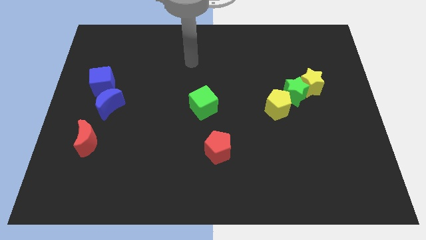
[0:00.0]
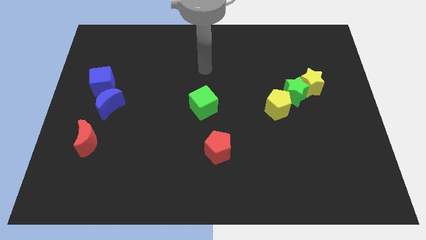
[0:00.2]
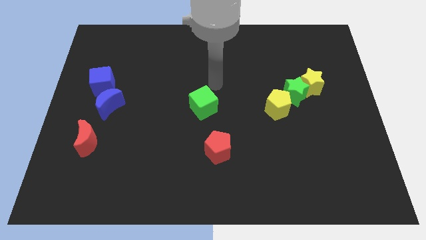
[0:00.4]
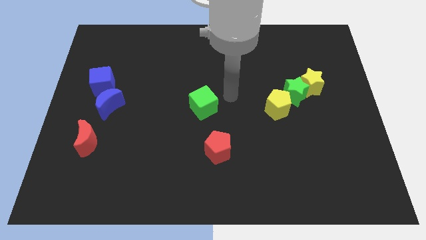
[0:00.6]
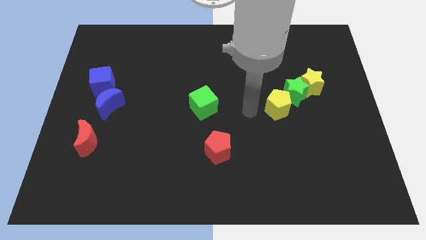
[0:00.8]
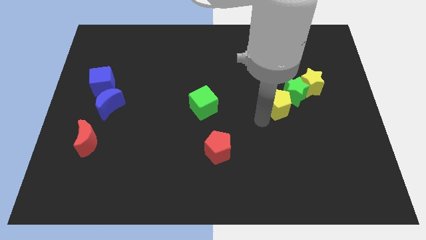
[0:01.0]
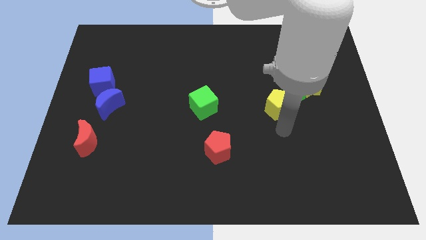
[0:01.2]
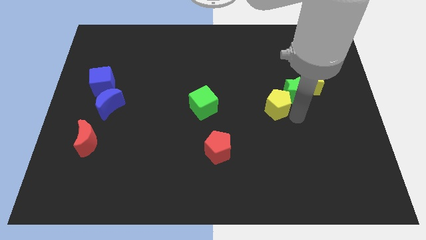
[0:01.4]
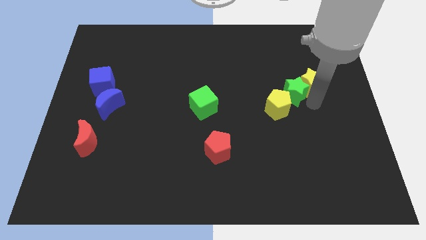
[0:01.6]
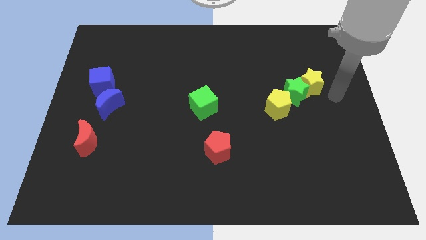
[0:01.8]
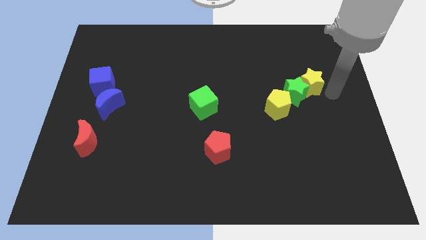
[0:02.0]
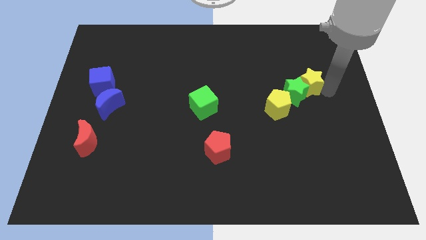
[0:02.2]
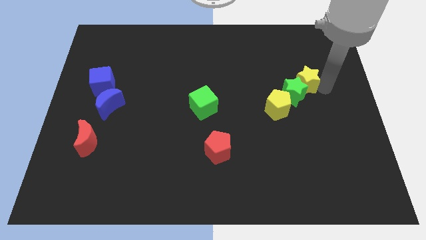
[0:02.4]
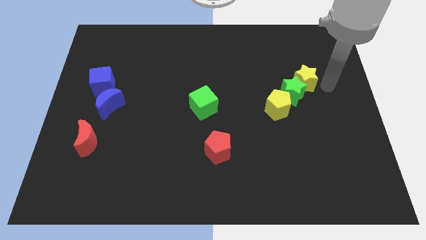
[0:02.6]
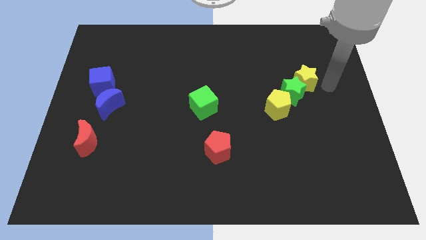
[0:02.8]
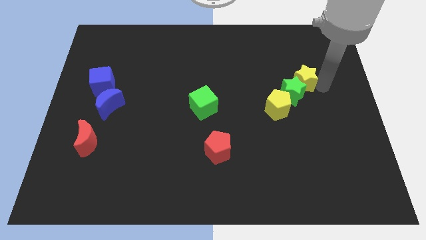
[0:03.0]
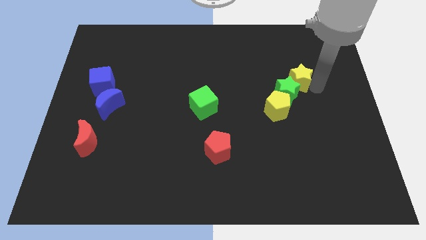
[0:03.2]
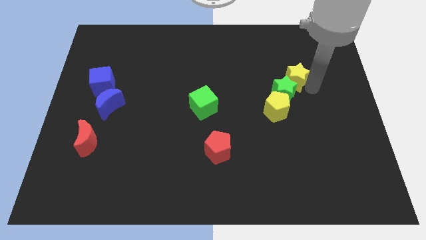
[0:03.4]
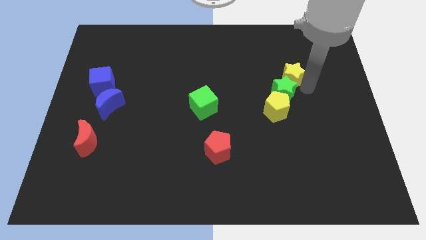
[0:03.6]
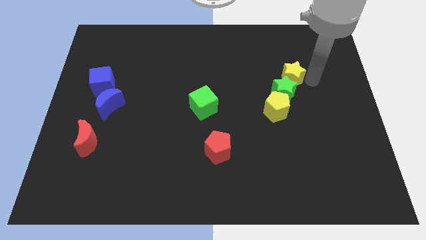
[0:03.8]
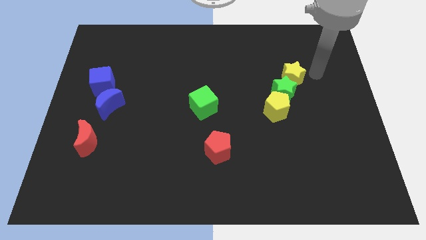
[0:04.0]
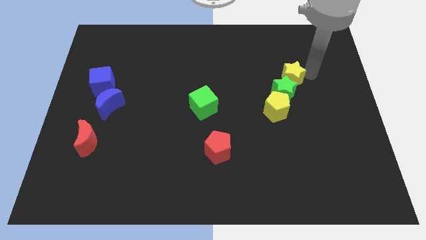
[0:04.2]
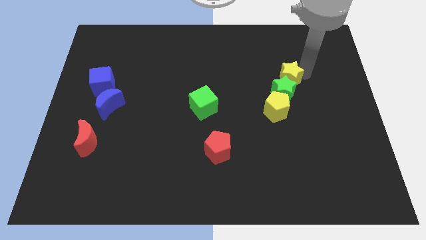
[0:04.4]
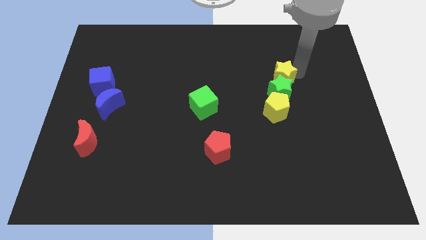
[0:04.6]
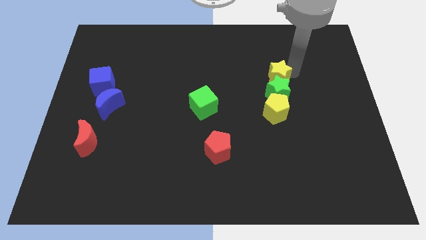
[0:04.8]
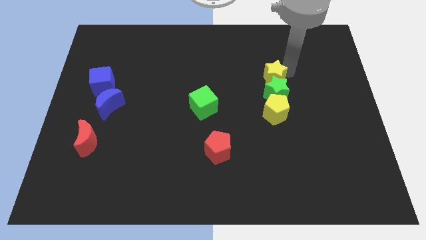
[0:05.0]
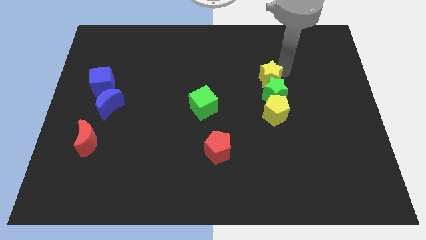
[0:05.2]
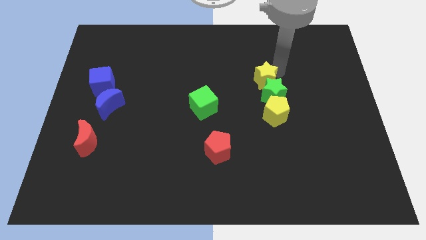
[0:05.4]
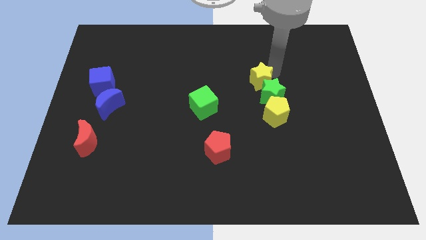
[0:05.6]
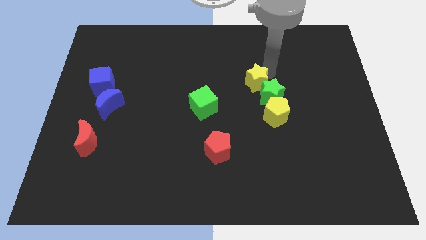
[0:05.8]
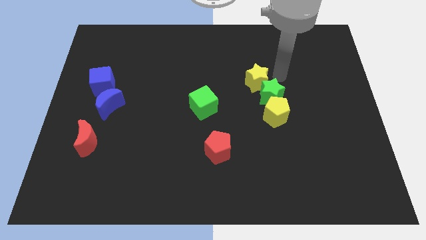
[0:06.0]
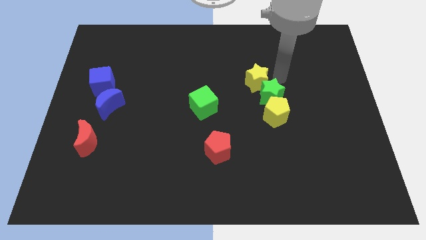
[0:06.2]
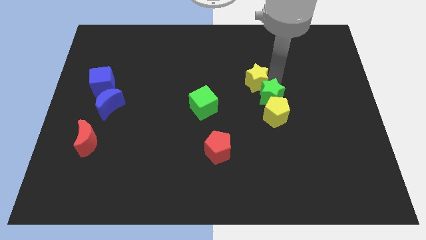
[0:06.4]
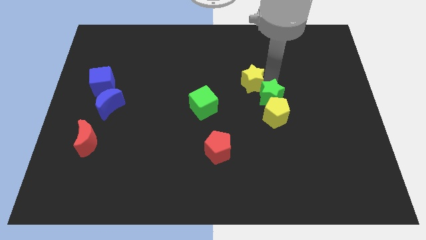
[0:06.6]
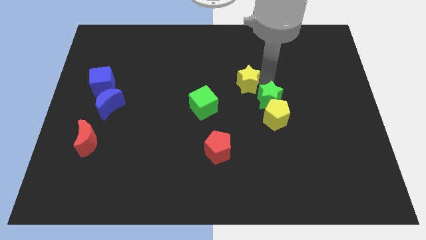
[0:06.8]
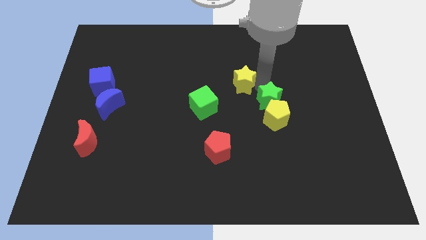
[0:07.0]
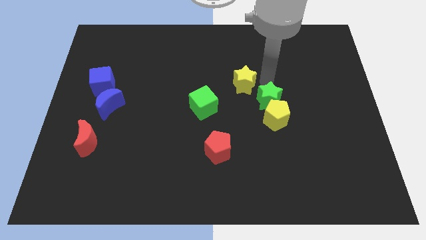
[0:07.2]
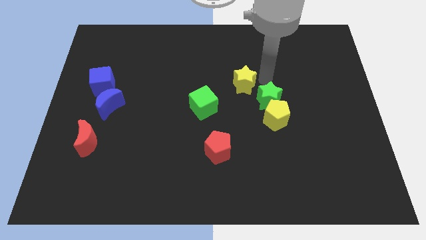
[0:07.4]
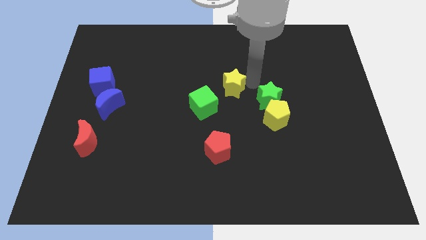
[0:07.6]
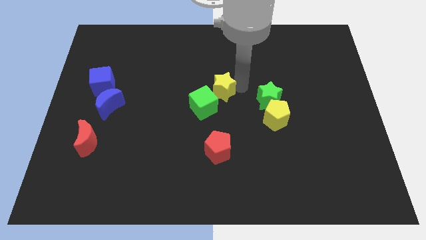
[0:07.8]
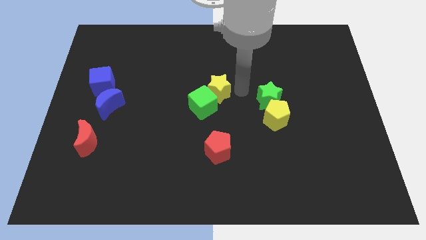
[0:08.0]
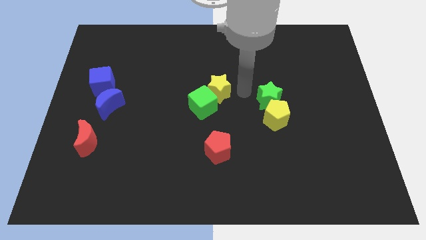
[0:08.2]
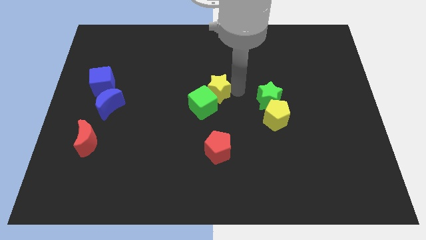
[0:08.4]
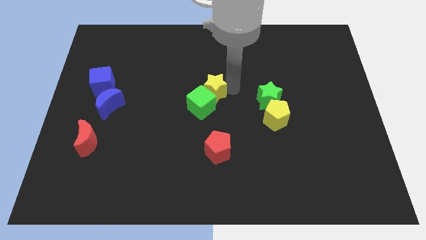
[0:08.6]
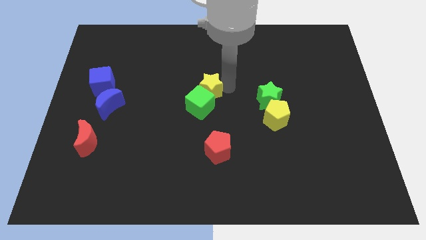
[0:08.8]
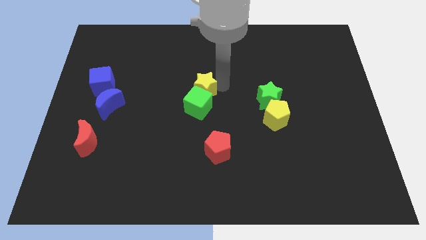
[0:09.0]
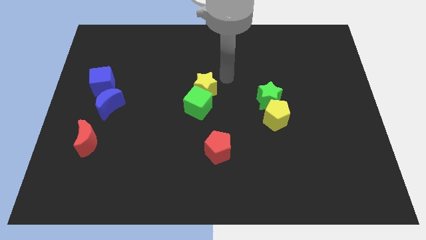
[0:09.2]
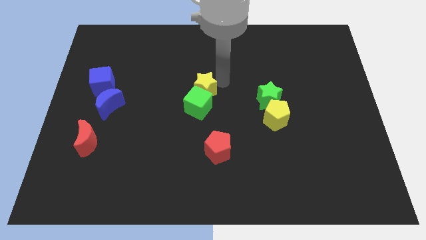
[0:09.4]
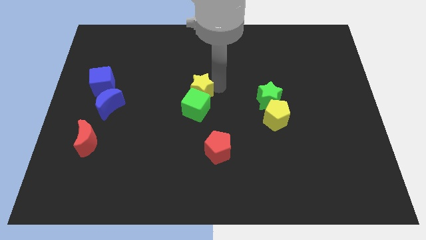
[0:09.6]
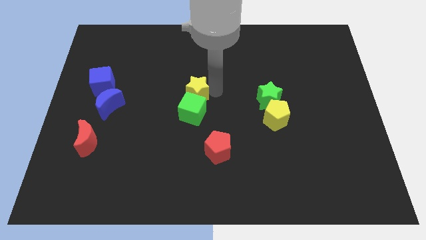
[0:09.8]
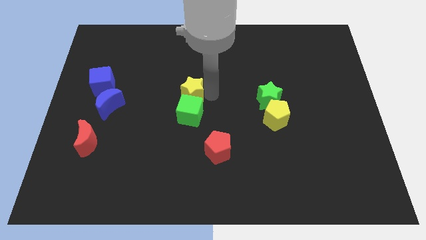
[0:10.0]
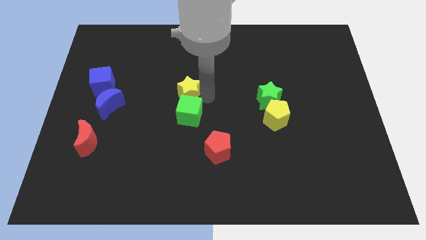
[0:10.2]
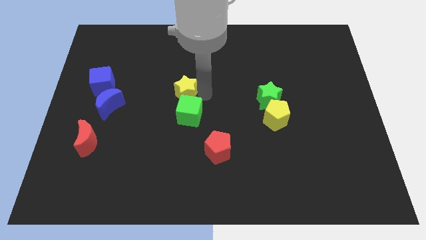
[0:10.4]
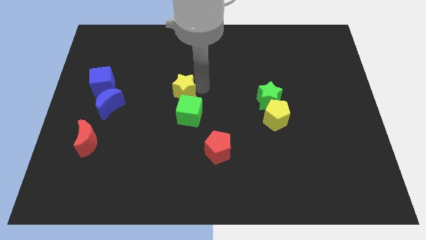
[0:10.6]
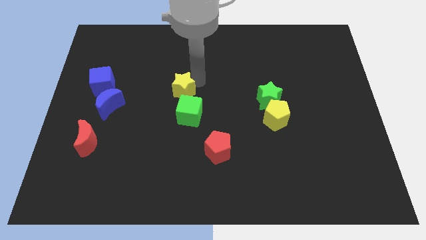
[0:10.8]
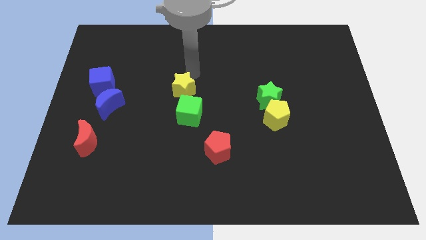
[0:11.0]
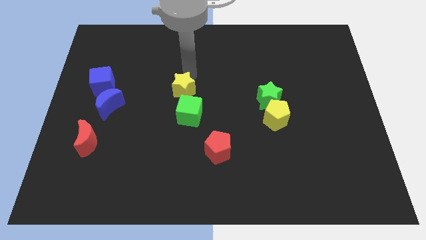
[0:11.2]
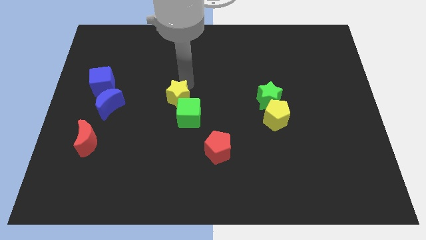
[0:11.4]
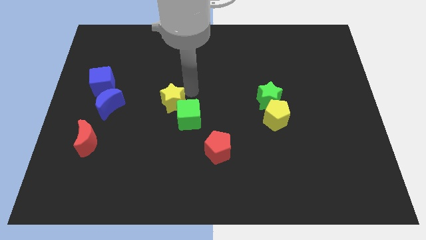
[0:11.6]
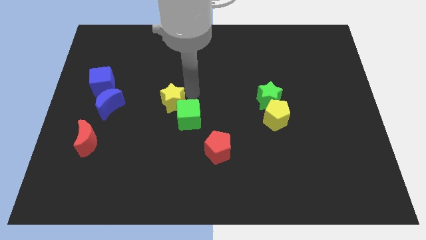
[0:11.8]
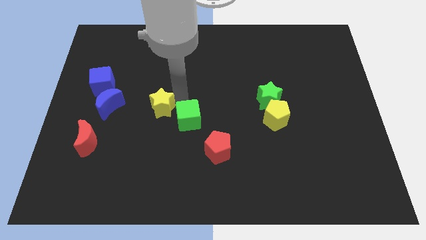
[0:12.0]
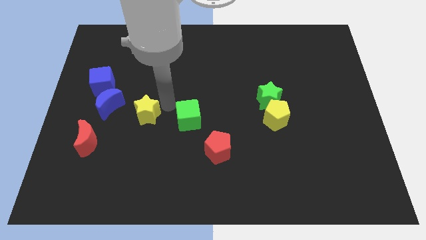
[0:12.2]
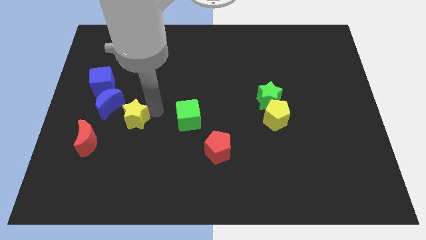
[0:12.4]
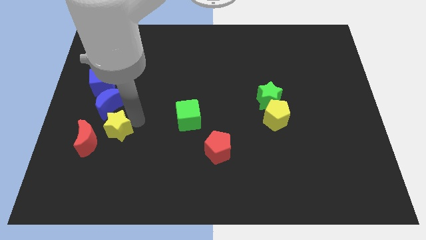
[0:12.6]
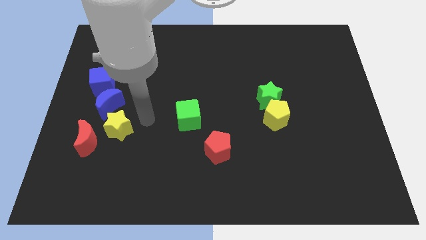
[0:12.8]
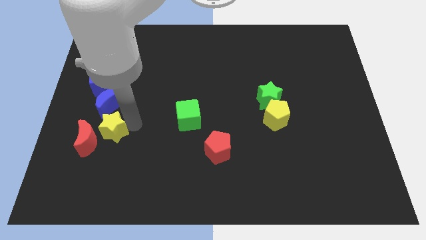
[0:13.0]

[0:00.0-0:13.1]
move the yellow star to the red moon
